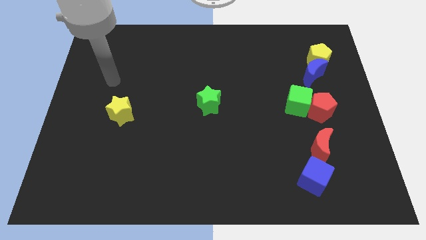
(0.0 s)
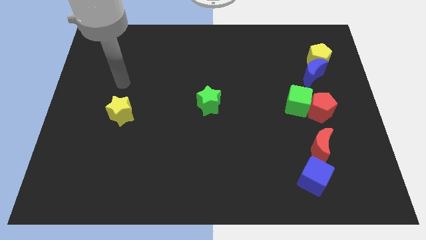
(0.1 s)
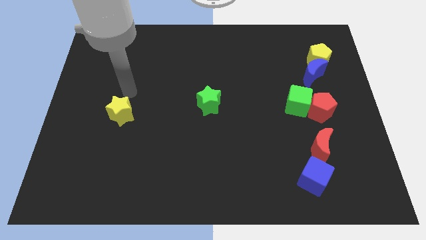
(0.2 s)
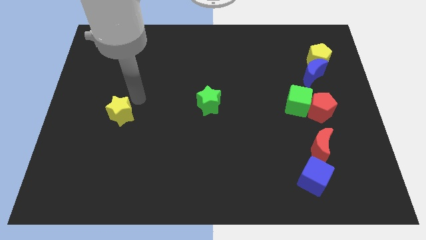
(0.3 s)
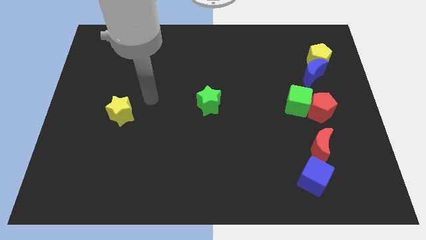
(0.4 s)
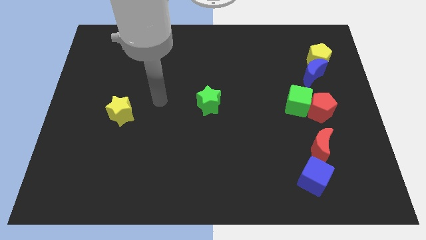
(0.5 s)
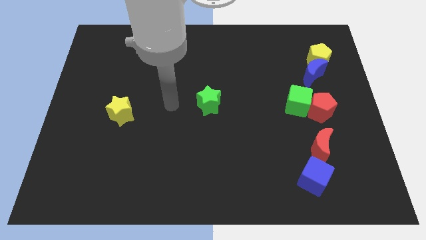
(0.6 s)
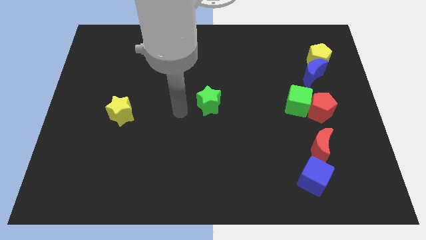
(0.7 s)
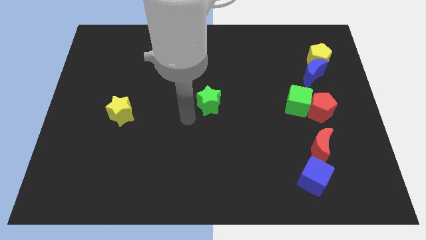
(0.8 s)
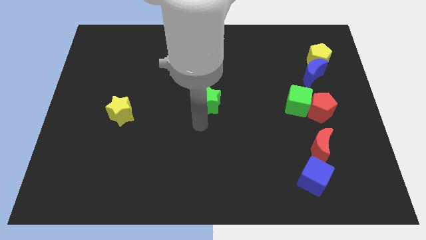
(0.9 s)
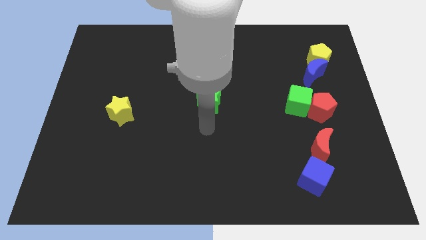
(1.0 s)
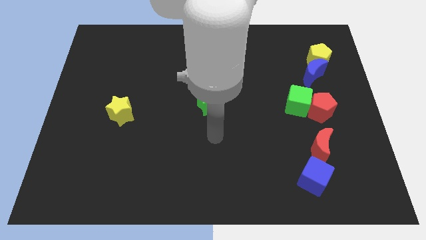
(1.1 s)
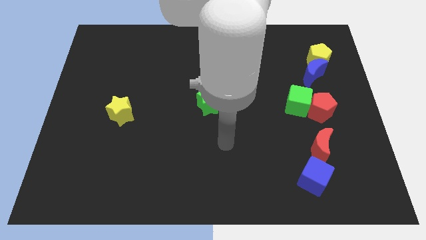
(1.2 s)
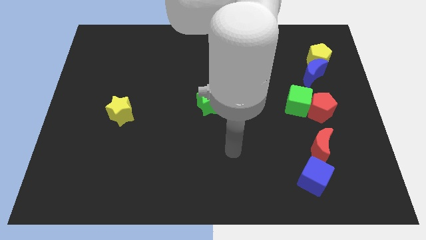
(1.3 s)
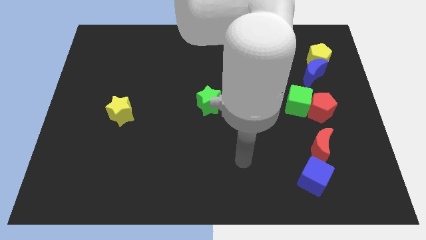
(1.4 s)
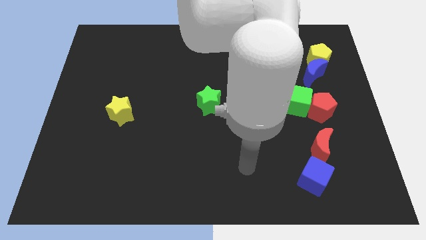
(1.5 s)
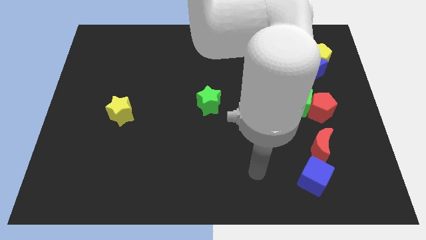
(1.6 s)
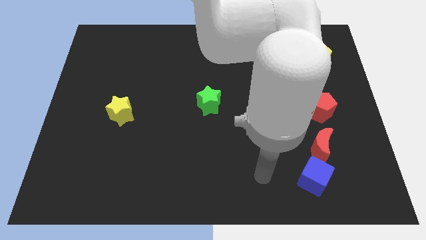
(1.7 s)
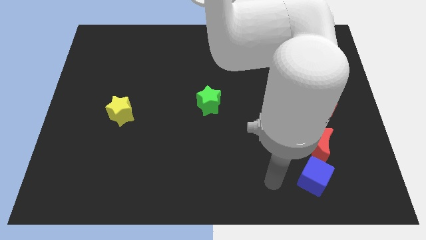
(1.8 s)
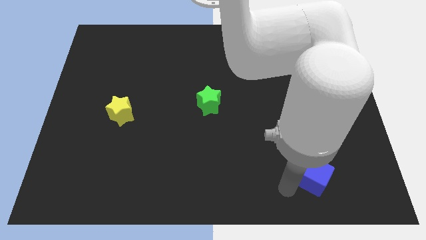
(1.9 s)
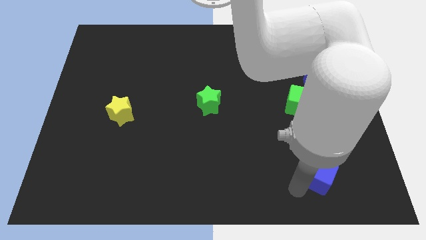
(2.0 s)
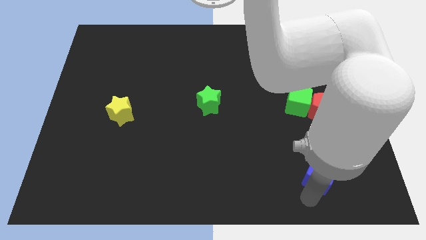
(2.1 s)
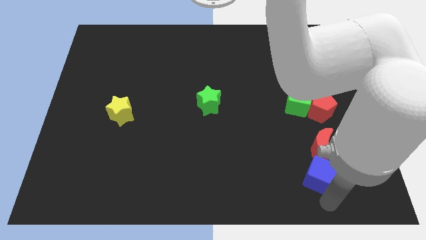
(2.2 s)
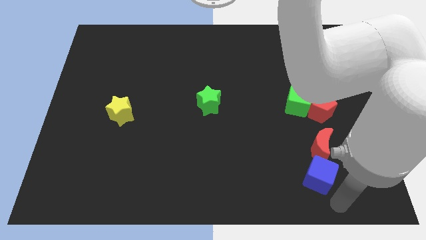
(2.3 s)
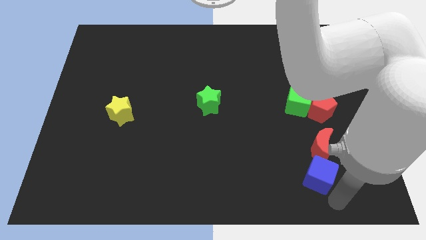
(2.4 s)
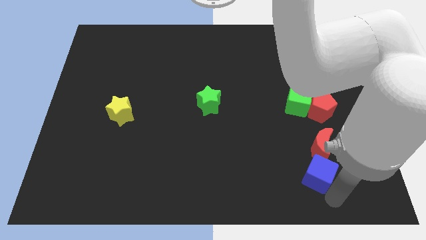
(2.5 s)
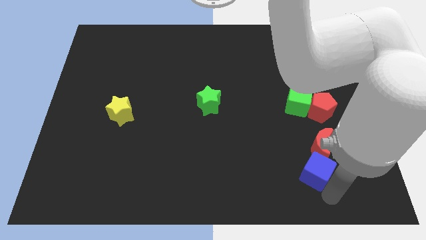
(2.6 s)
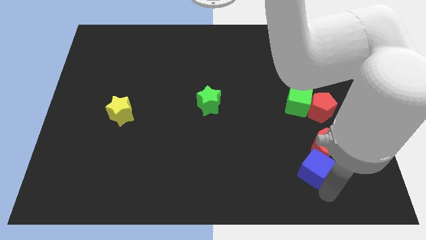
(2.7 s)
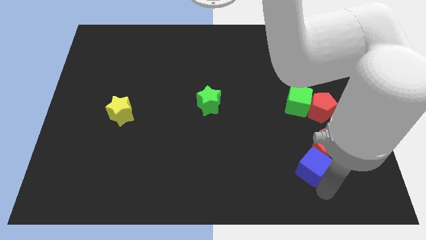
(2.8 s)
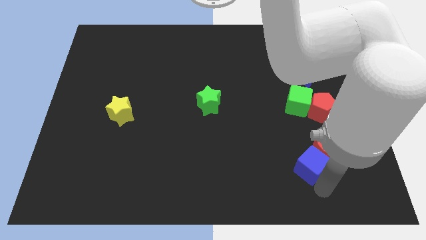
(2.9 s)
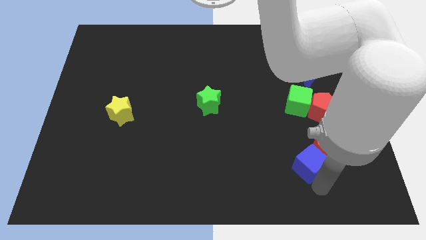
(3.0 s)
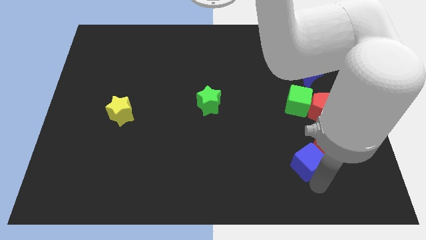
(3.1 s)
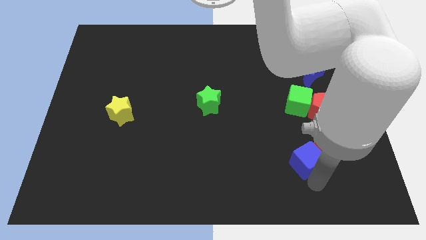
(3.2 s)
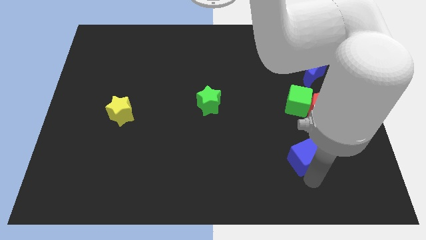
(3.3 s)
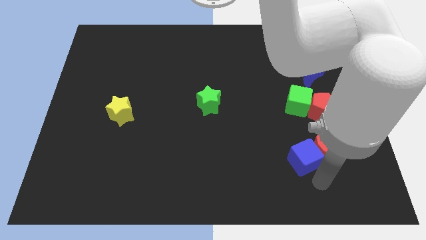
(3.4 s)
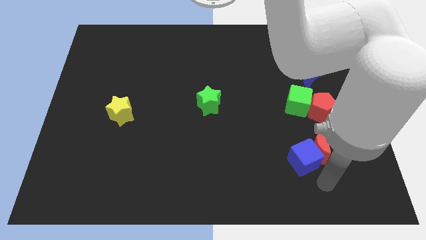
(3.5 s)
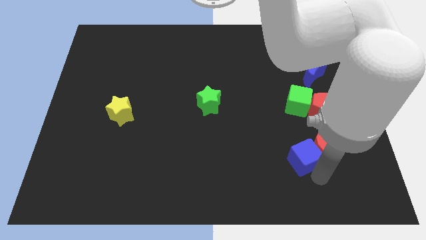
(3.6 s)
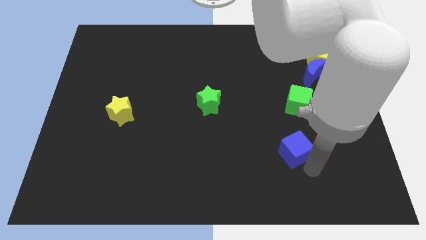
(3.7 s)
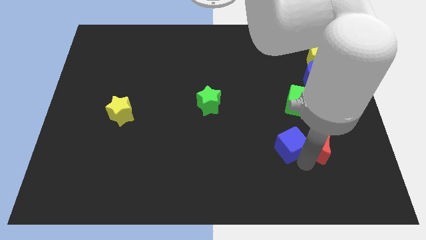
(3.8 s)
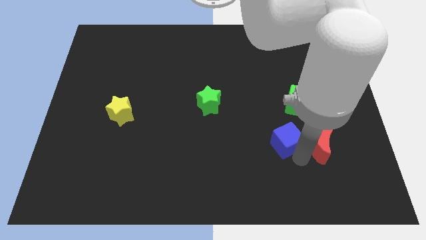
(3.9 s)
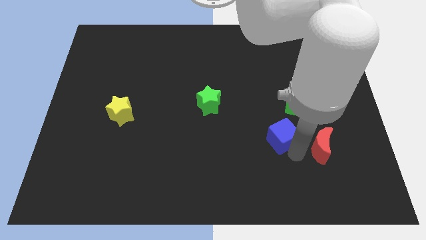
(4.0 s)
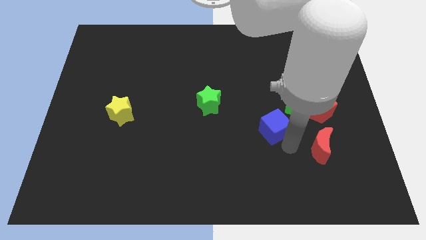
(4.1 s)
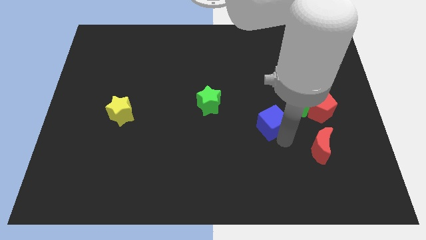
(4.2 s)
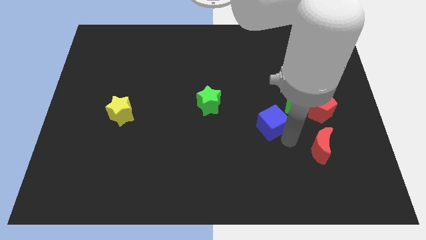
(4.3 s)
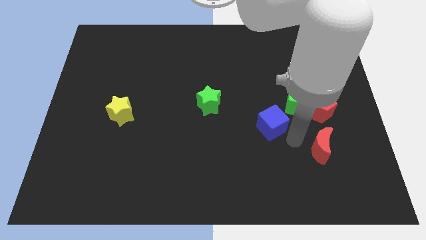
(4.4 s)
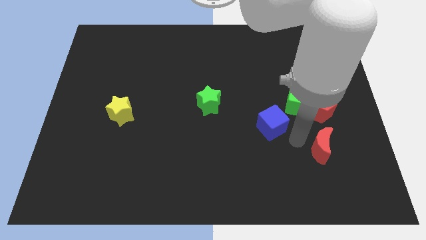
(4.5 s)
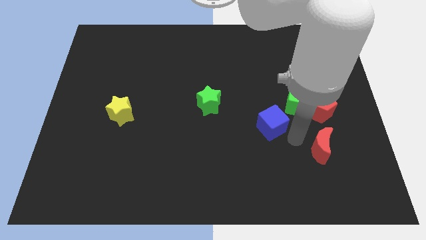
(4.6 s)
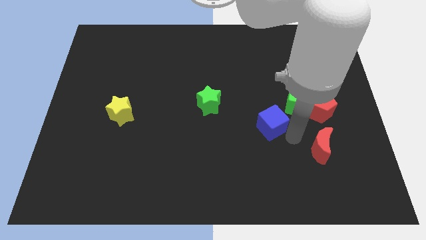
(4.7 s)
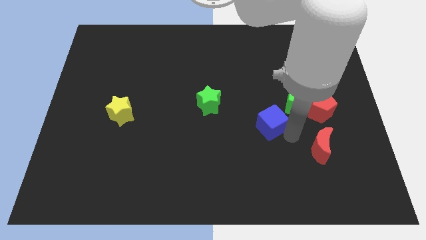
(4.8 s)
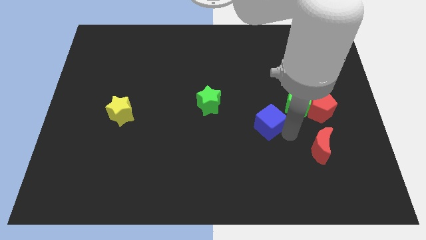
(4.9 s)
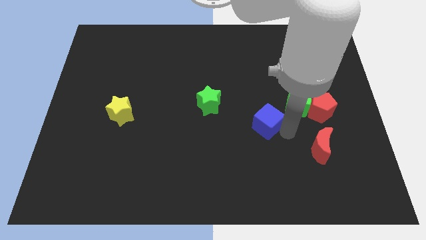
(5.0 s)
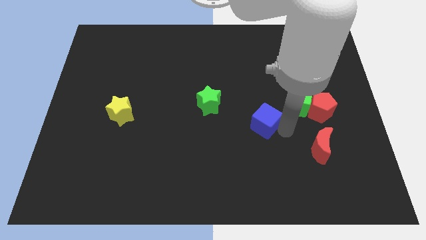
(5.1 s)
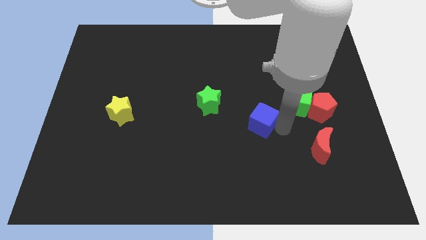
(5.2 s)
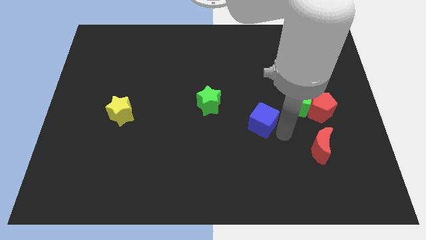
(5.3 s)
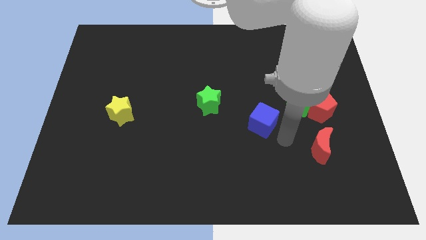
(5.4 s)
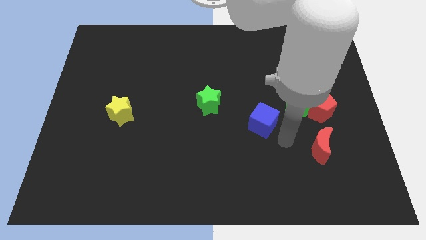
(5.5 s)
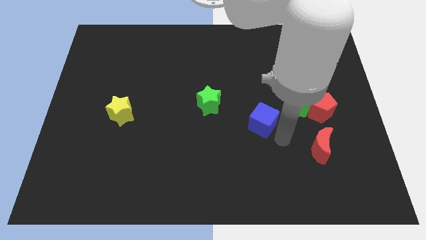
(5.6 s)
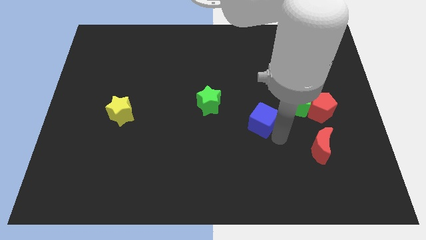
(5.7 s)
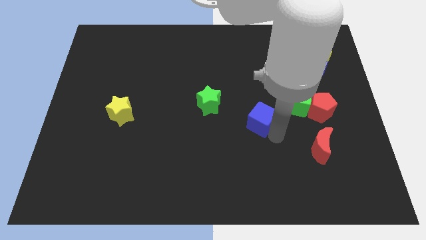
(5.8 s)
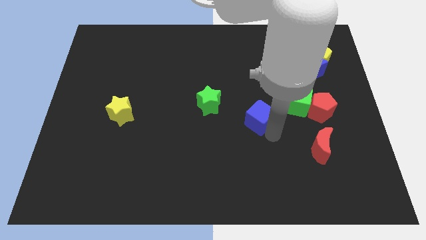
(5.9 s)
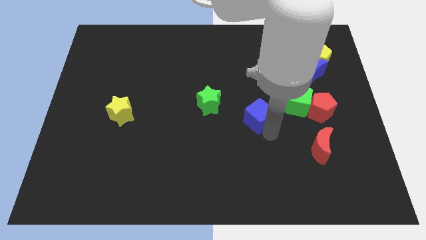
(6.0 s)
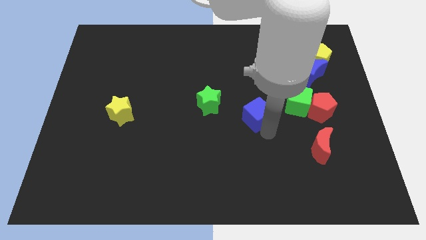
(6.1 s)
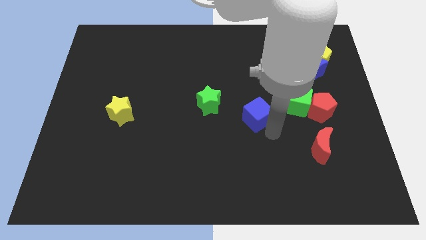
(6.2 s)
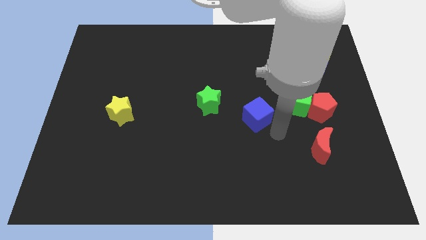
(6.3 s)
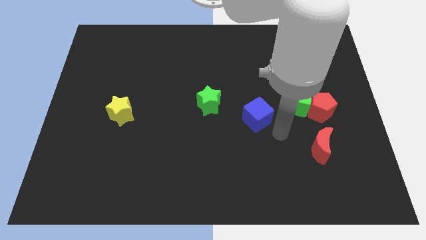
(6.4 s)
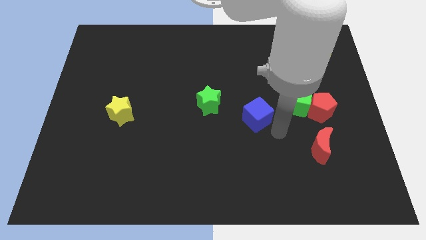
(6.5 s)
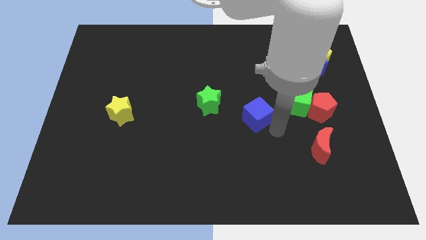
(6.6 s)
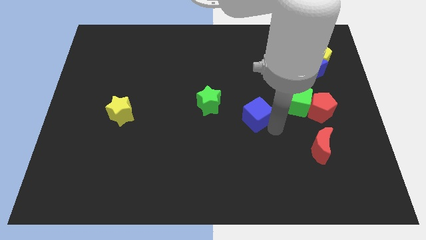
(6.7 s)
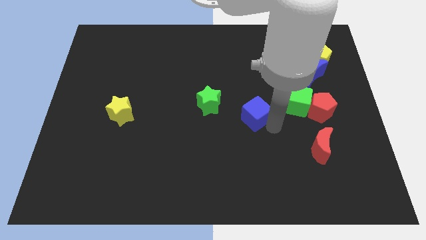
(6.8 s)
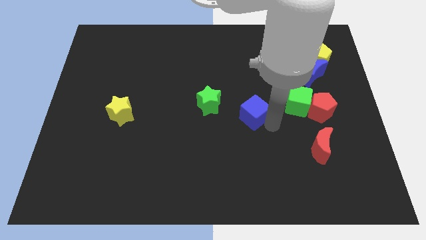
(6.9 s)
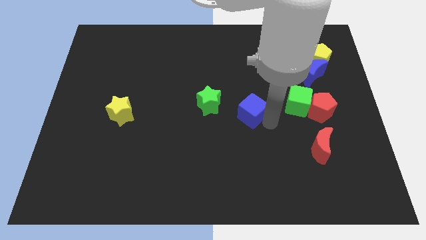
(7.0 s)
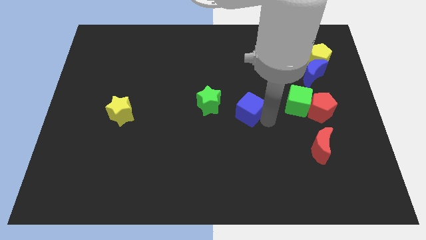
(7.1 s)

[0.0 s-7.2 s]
slide the blue cube up and then left

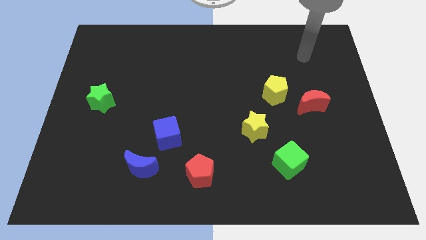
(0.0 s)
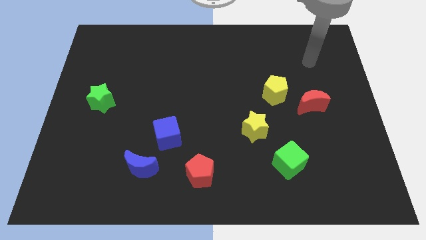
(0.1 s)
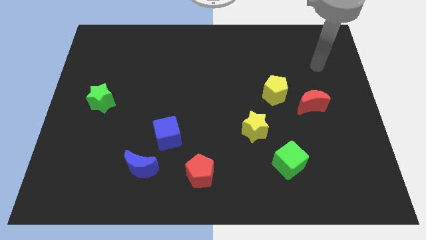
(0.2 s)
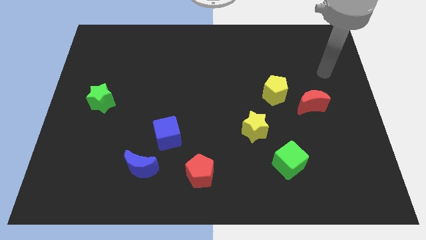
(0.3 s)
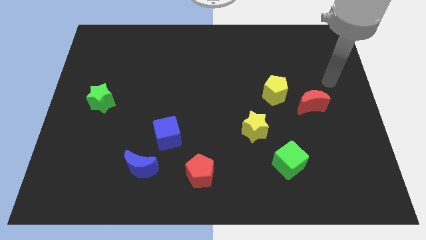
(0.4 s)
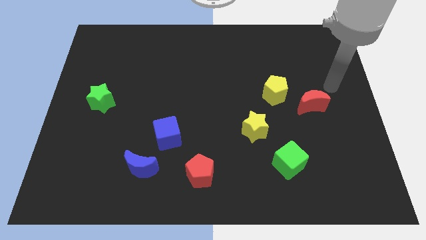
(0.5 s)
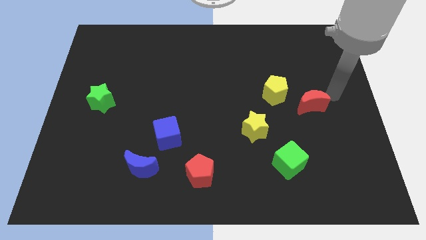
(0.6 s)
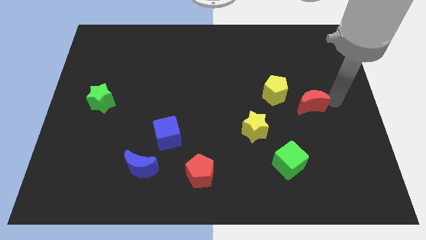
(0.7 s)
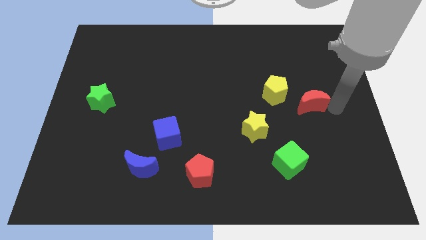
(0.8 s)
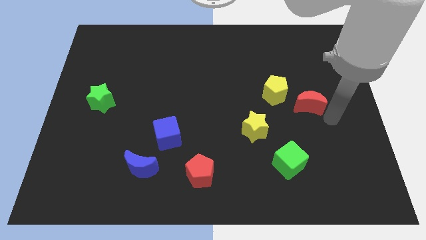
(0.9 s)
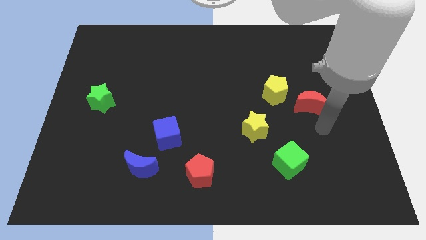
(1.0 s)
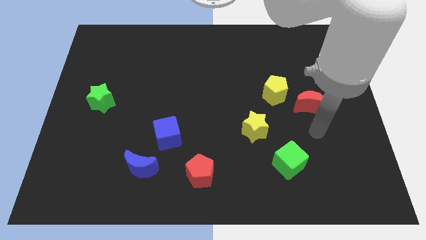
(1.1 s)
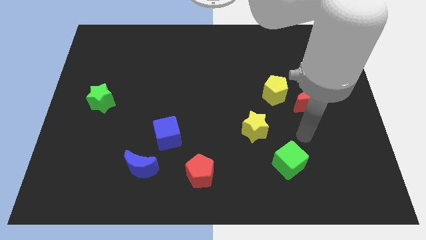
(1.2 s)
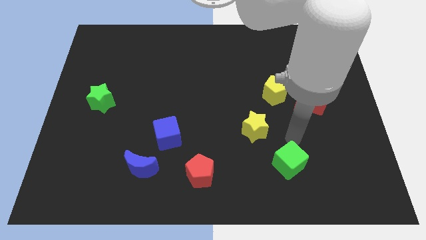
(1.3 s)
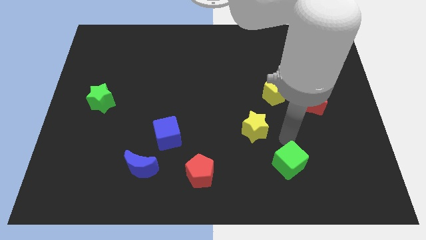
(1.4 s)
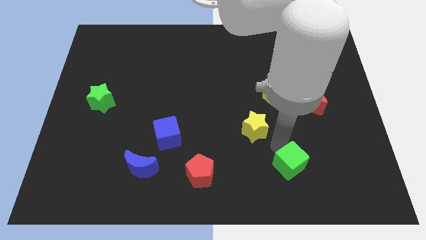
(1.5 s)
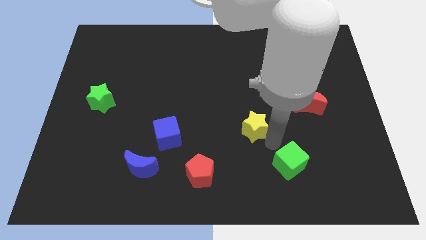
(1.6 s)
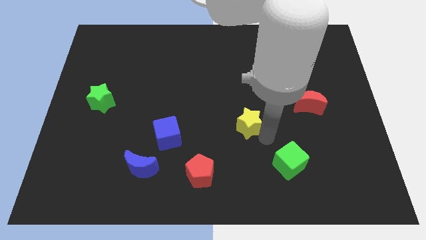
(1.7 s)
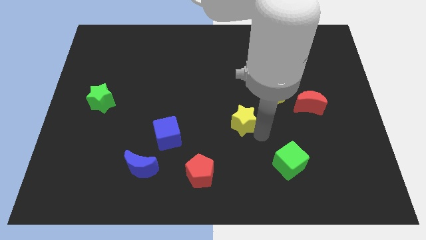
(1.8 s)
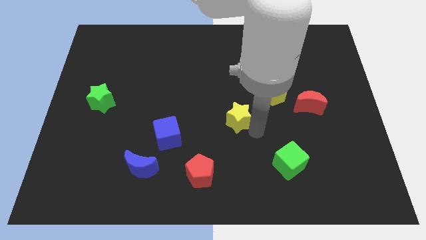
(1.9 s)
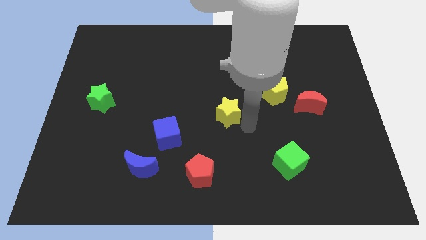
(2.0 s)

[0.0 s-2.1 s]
slightly move the yellow star diagonally upwards and left
